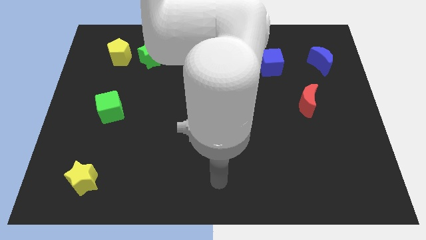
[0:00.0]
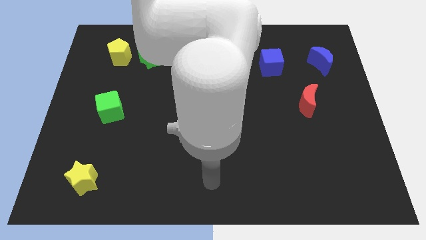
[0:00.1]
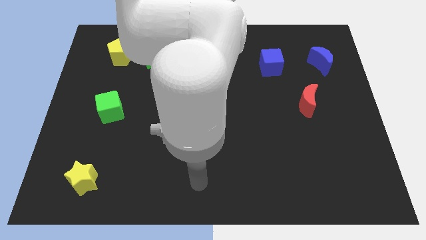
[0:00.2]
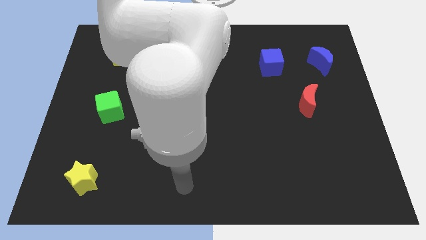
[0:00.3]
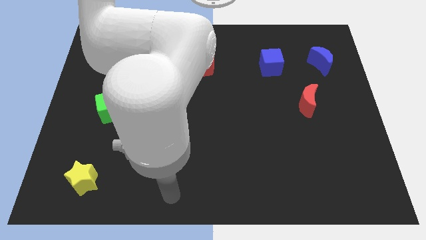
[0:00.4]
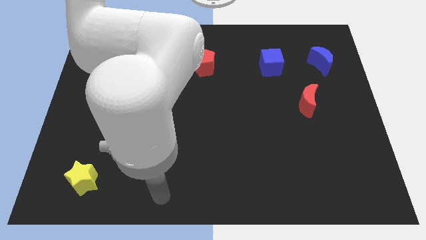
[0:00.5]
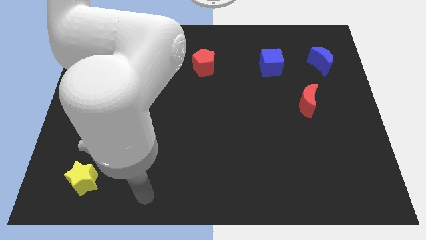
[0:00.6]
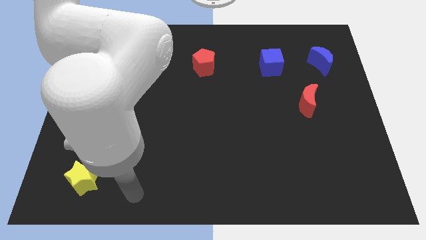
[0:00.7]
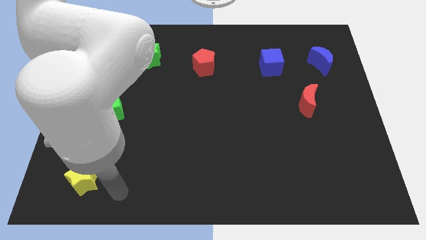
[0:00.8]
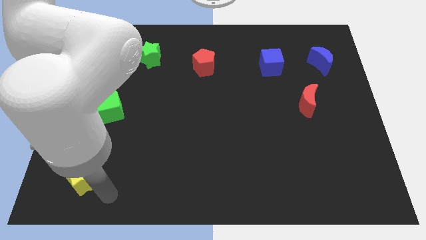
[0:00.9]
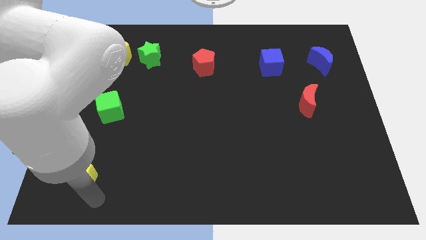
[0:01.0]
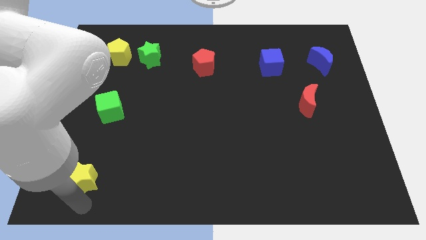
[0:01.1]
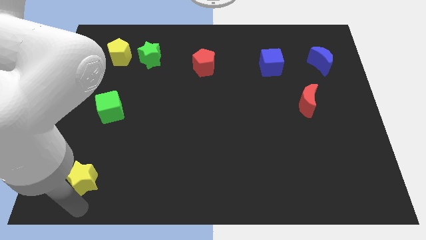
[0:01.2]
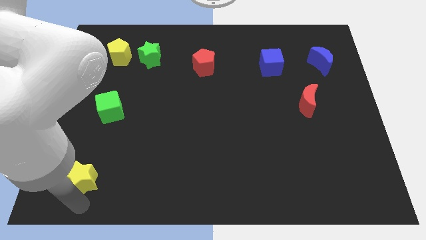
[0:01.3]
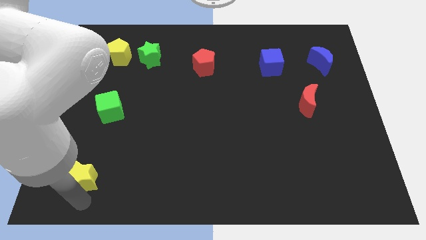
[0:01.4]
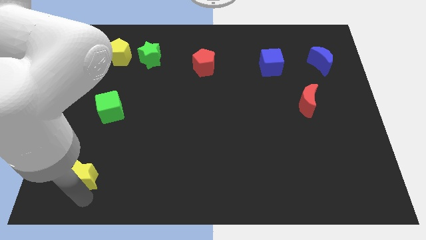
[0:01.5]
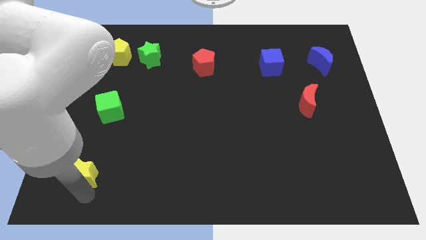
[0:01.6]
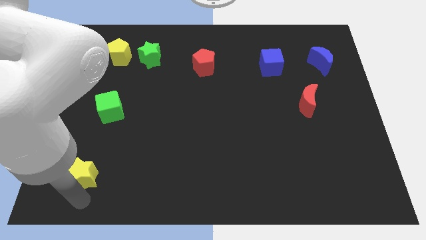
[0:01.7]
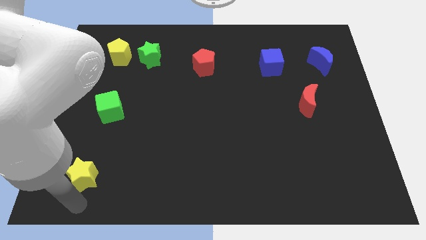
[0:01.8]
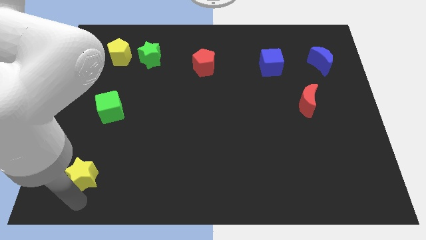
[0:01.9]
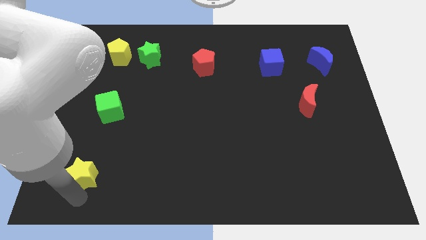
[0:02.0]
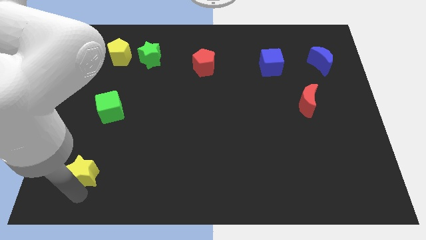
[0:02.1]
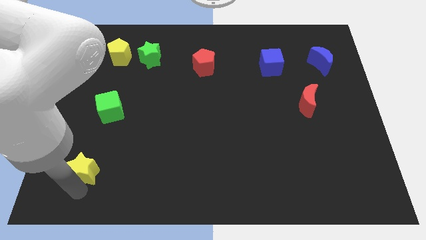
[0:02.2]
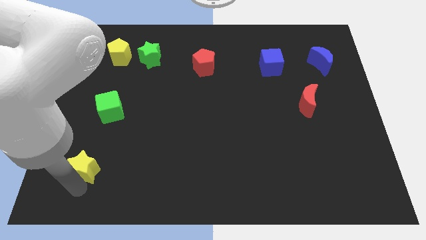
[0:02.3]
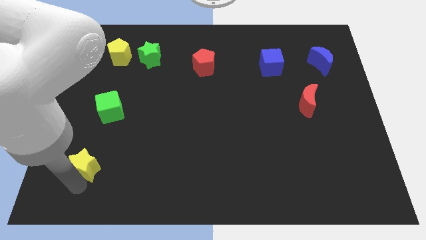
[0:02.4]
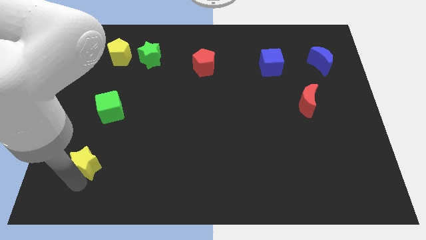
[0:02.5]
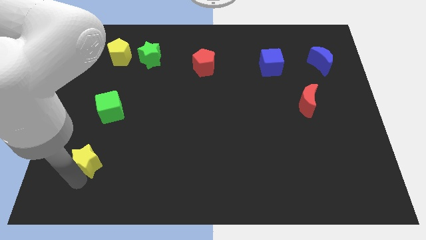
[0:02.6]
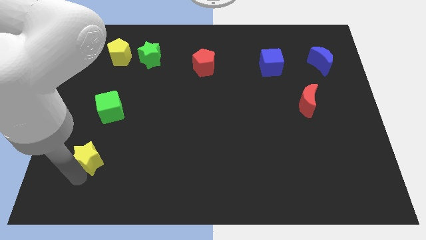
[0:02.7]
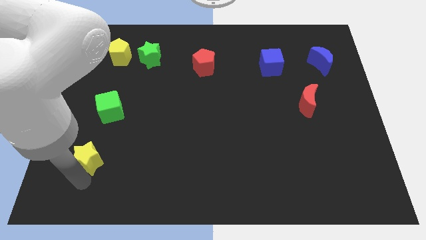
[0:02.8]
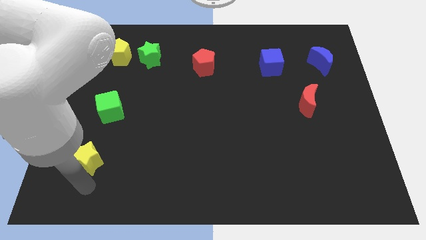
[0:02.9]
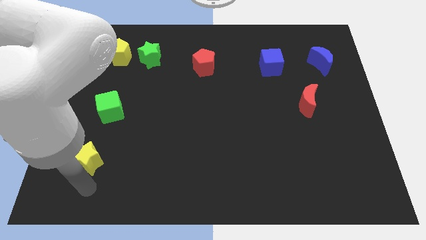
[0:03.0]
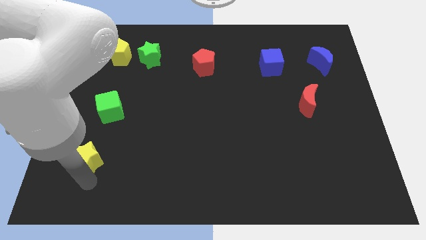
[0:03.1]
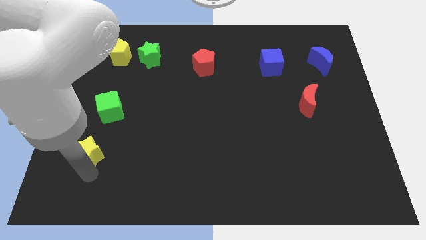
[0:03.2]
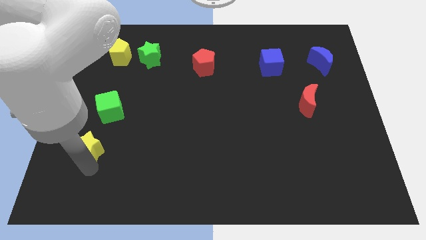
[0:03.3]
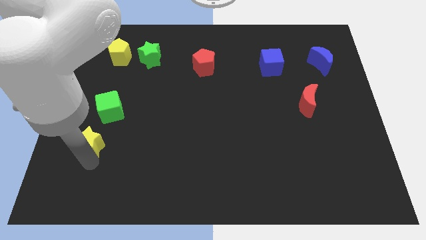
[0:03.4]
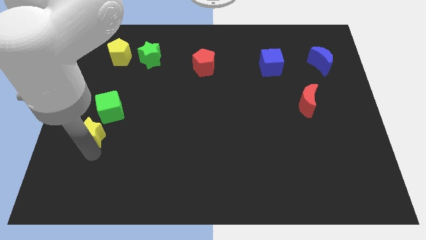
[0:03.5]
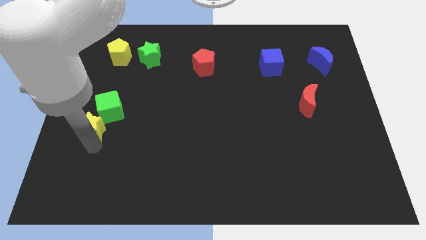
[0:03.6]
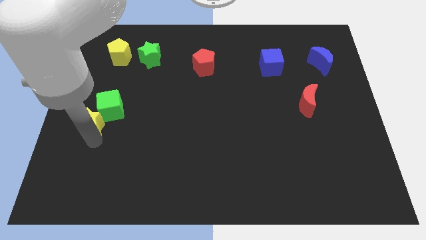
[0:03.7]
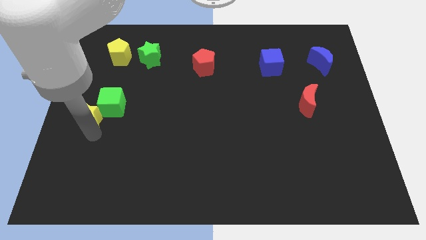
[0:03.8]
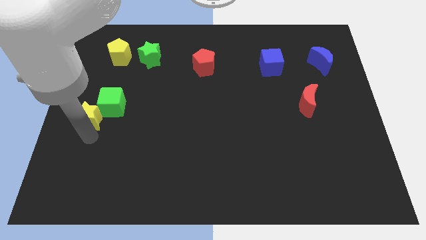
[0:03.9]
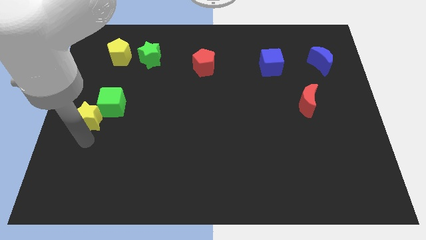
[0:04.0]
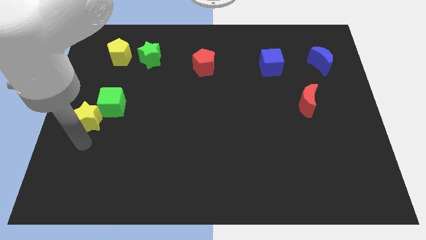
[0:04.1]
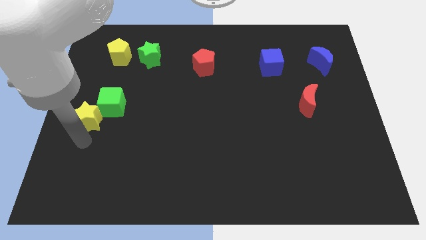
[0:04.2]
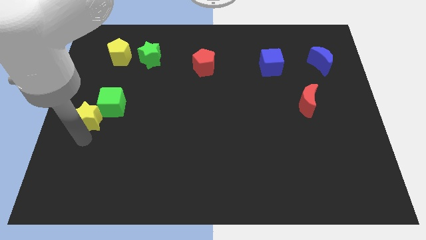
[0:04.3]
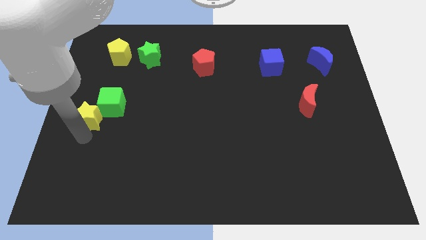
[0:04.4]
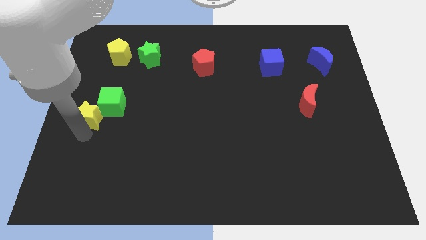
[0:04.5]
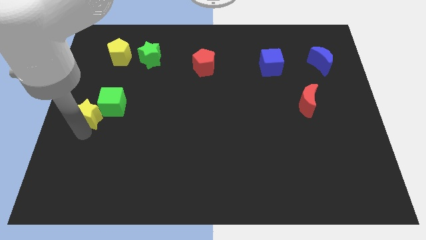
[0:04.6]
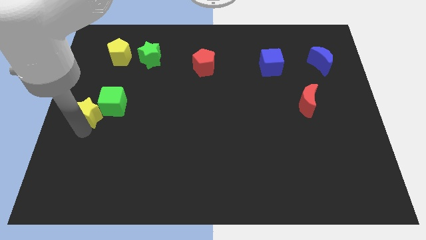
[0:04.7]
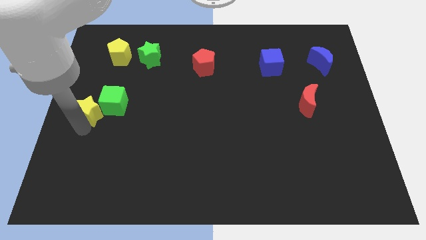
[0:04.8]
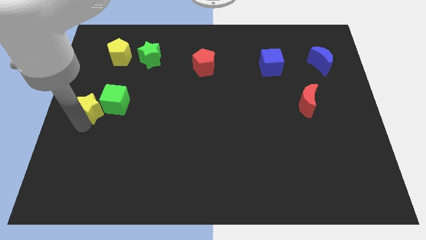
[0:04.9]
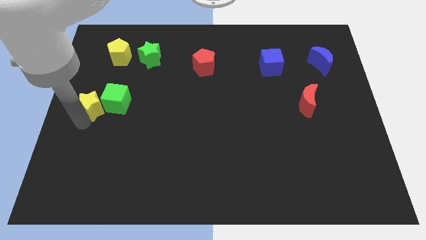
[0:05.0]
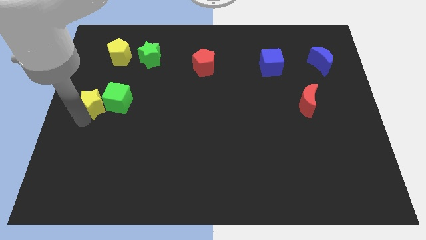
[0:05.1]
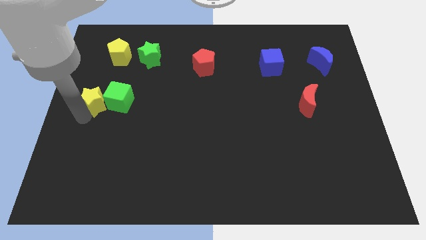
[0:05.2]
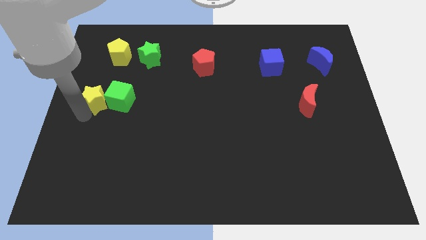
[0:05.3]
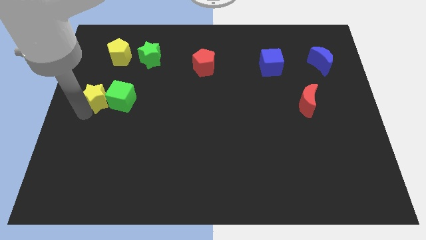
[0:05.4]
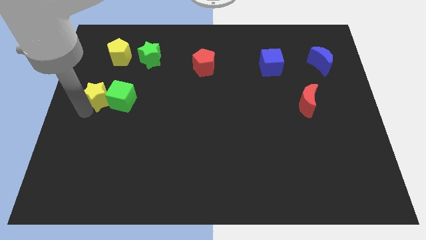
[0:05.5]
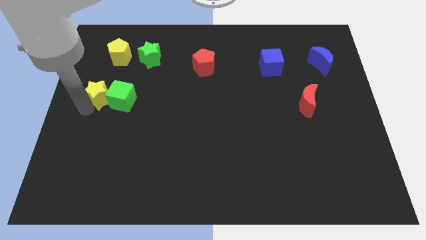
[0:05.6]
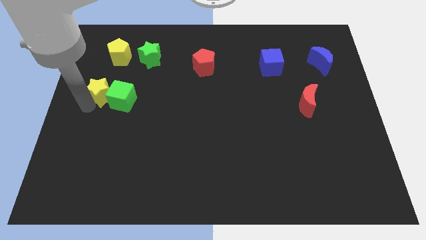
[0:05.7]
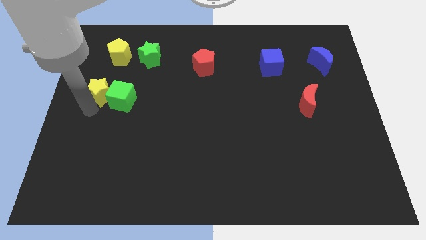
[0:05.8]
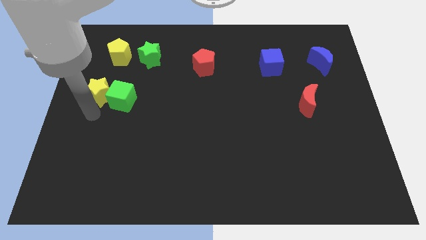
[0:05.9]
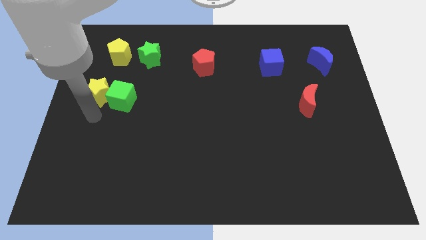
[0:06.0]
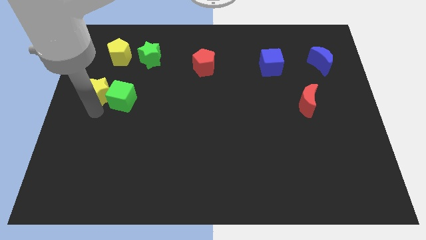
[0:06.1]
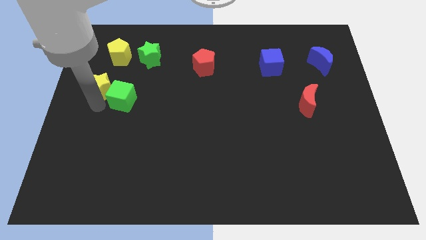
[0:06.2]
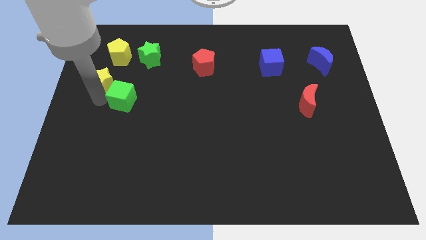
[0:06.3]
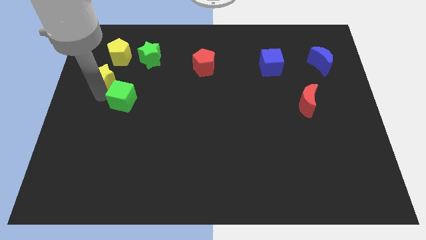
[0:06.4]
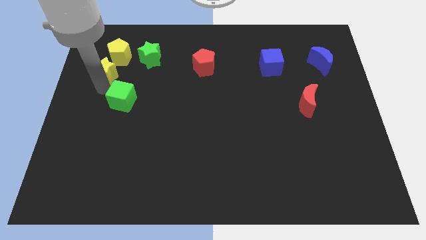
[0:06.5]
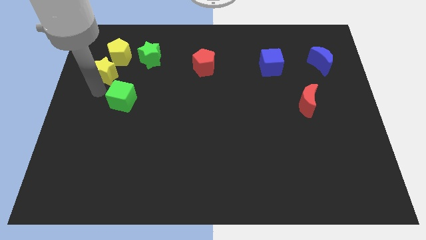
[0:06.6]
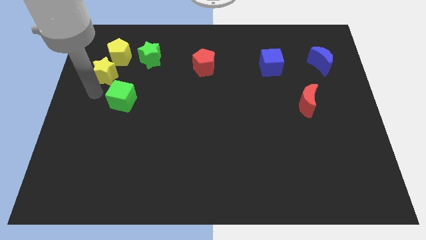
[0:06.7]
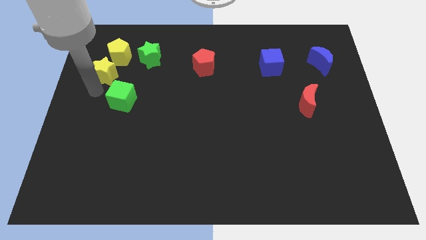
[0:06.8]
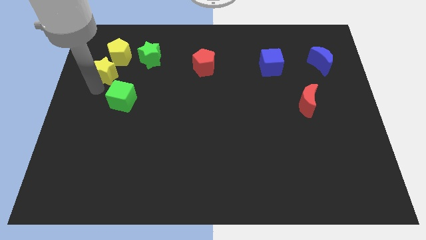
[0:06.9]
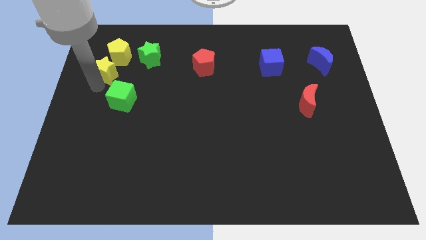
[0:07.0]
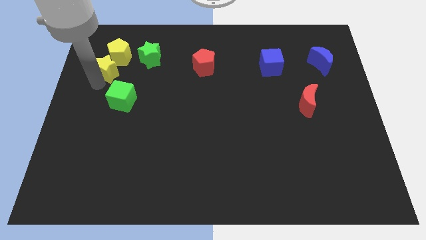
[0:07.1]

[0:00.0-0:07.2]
move the yellow star close to the yellow pentagon
